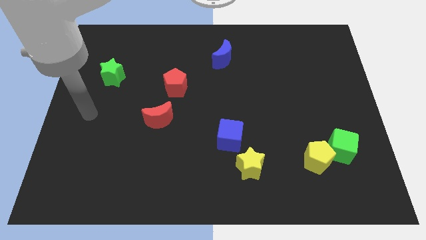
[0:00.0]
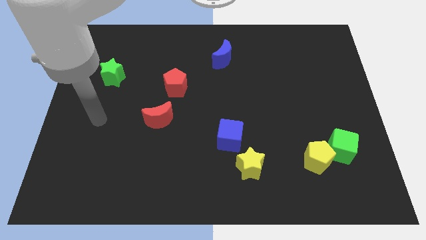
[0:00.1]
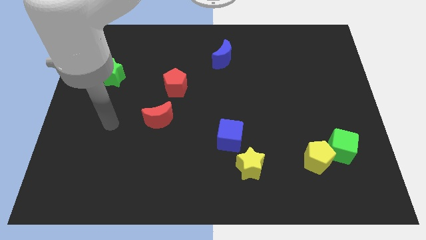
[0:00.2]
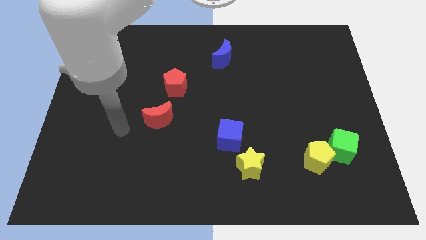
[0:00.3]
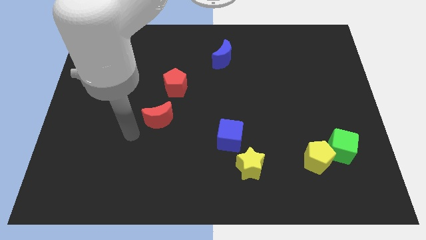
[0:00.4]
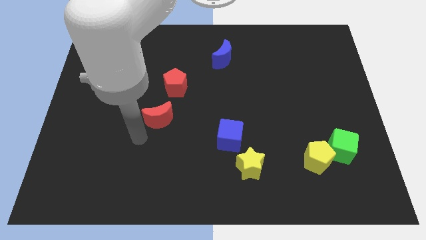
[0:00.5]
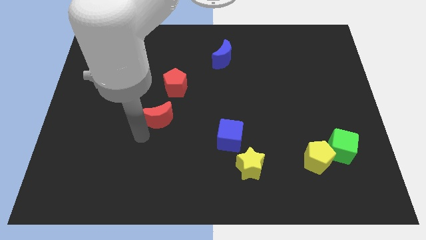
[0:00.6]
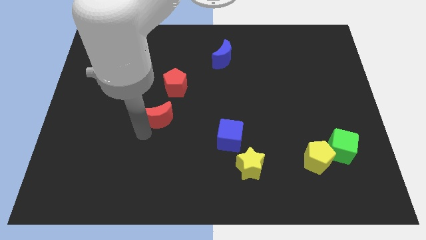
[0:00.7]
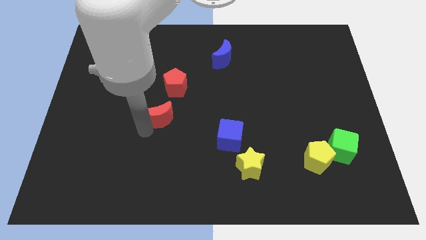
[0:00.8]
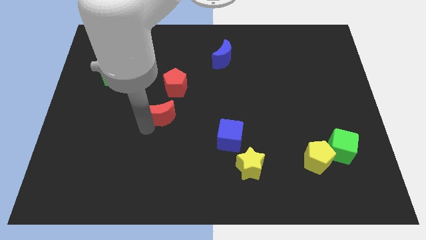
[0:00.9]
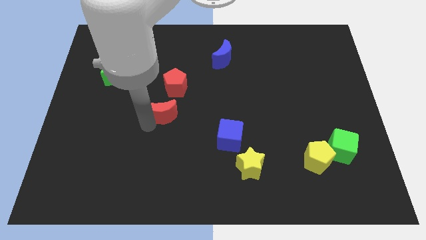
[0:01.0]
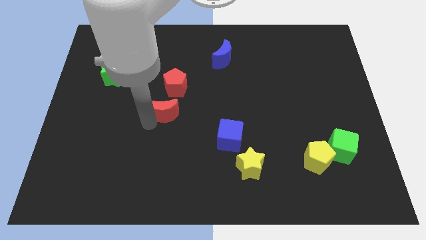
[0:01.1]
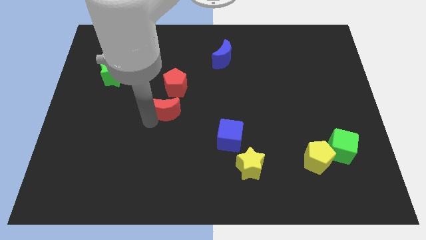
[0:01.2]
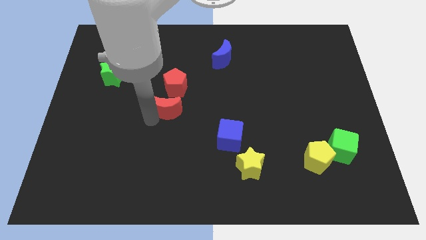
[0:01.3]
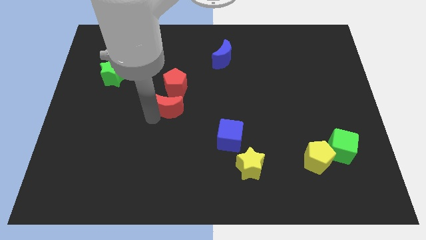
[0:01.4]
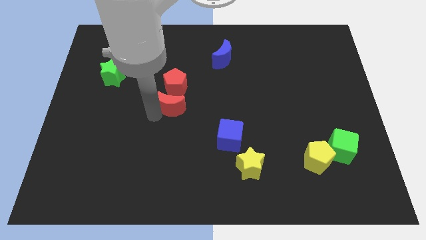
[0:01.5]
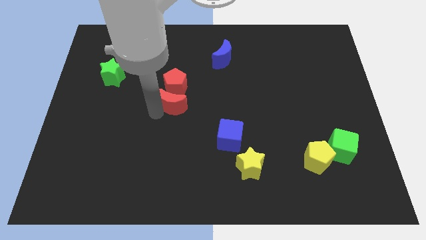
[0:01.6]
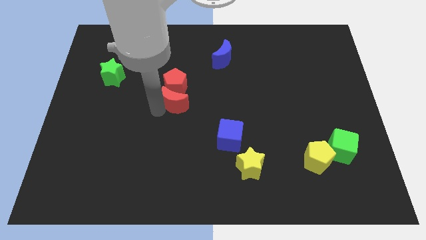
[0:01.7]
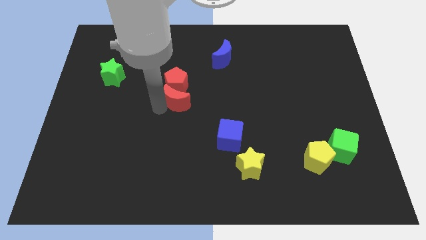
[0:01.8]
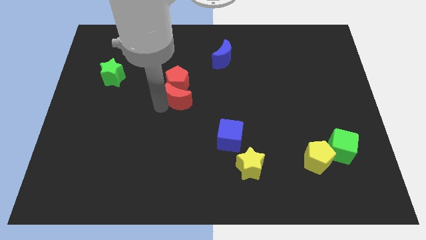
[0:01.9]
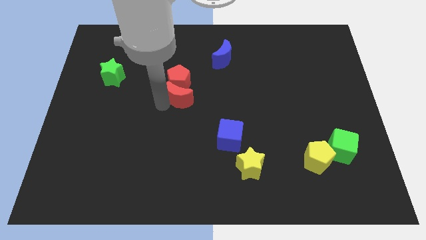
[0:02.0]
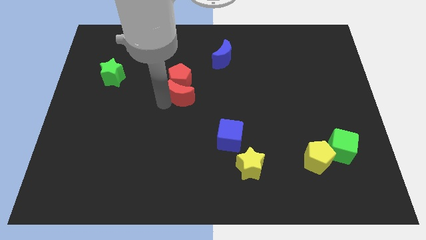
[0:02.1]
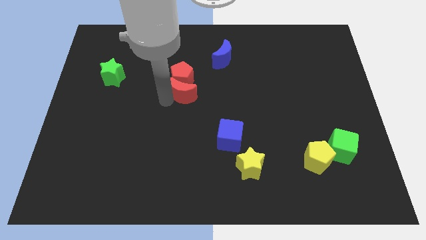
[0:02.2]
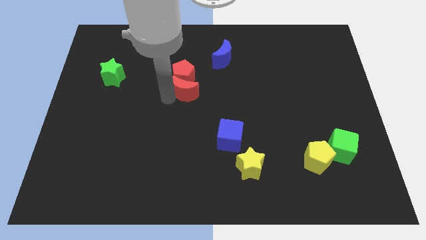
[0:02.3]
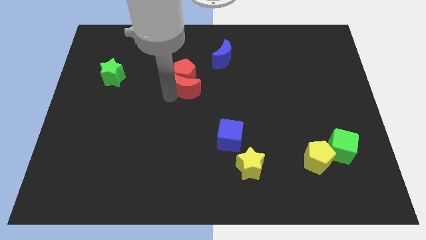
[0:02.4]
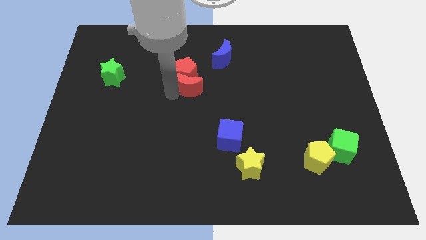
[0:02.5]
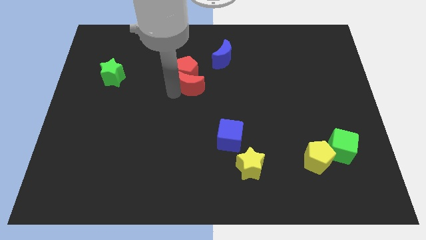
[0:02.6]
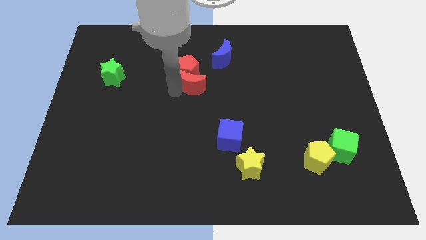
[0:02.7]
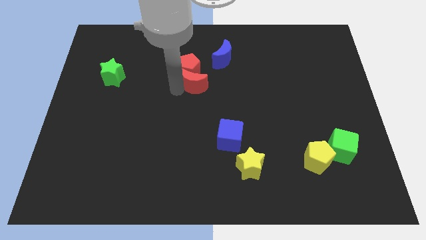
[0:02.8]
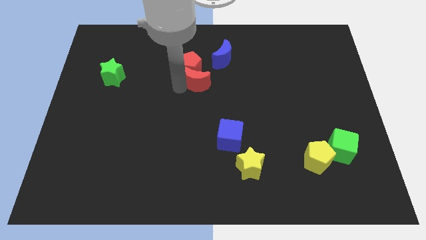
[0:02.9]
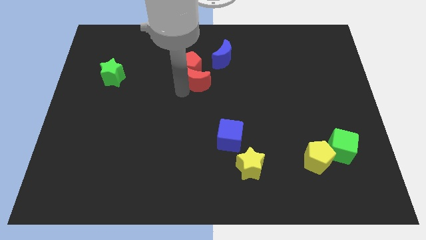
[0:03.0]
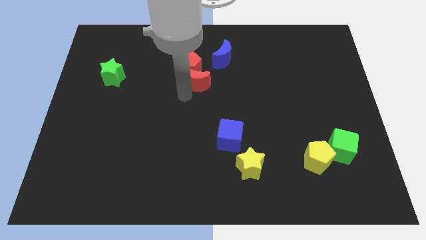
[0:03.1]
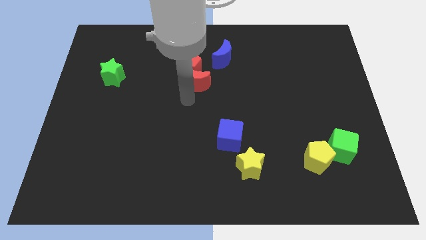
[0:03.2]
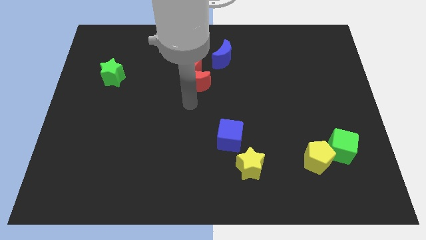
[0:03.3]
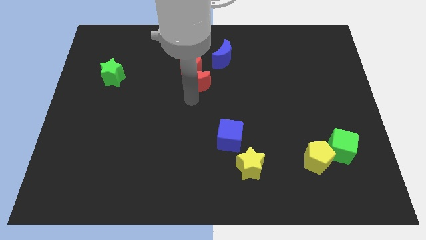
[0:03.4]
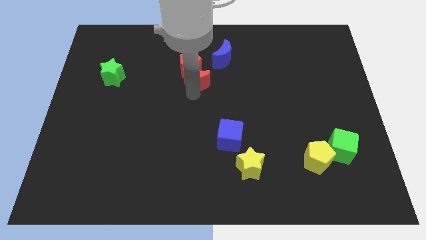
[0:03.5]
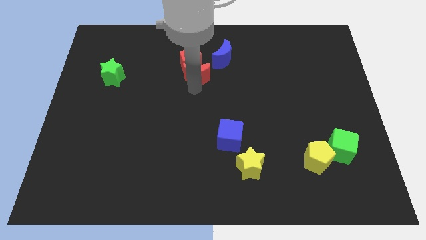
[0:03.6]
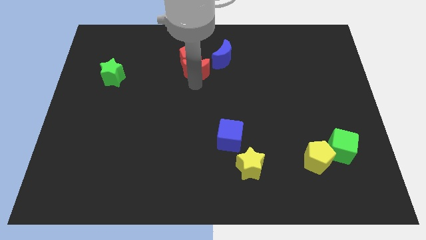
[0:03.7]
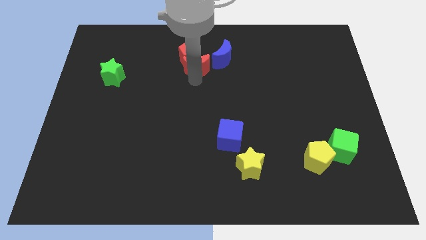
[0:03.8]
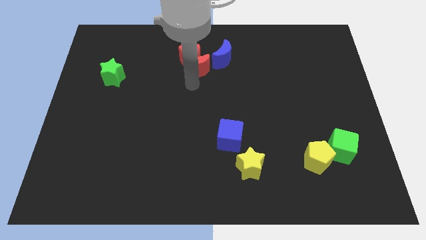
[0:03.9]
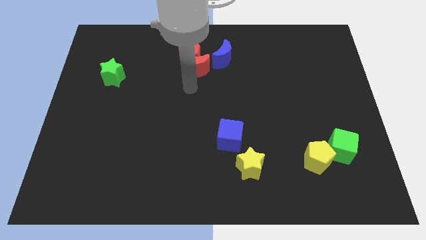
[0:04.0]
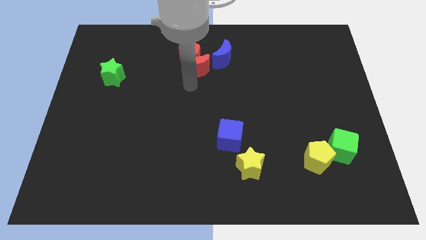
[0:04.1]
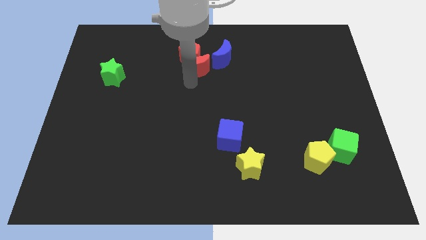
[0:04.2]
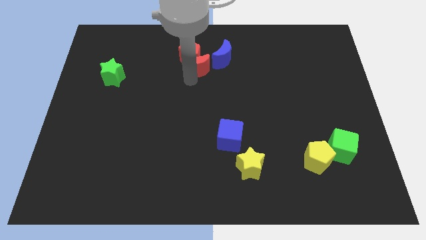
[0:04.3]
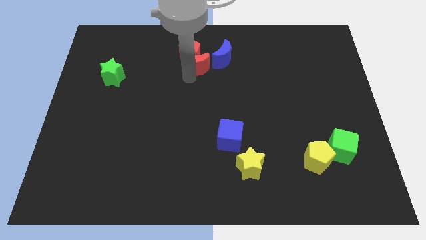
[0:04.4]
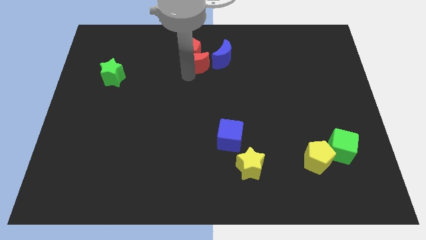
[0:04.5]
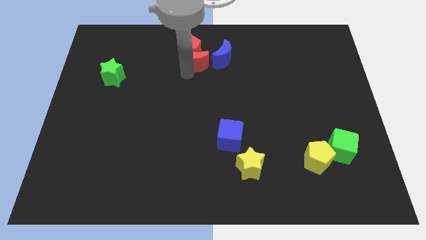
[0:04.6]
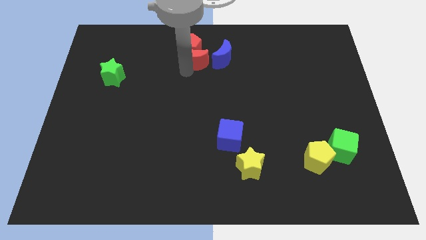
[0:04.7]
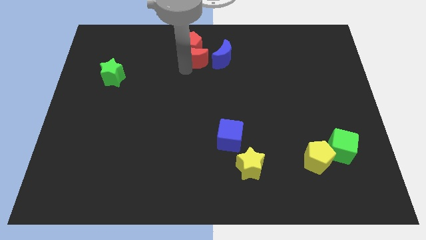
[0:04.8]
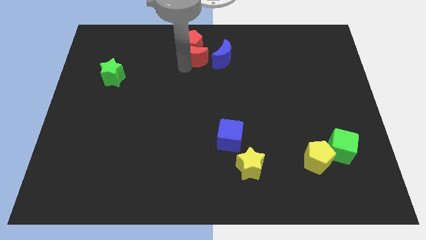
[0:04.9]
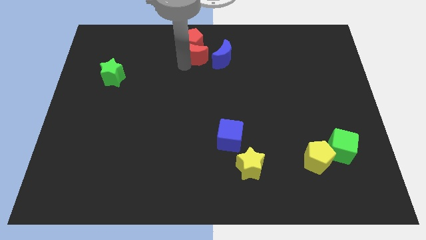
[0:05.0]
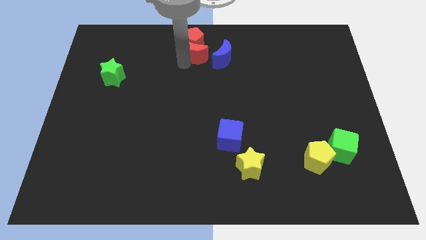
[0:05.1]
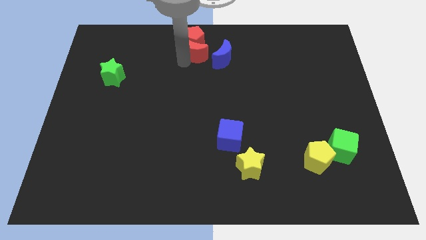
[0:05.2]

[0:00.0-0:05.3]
push the red moon to the towards your base
